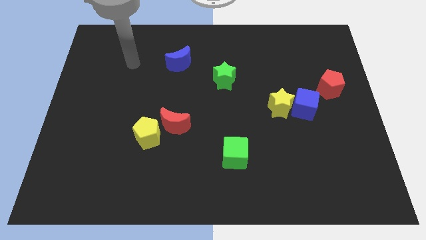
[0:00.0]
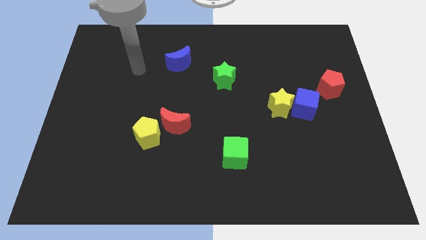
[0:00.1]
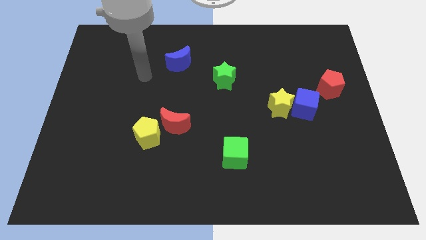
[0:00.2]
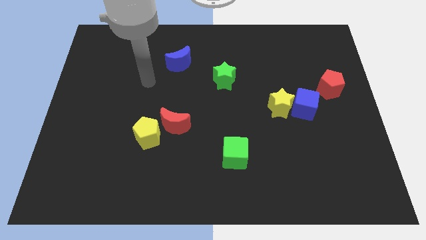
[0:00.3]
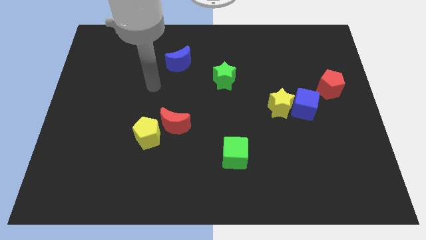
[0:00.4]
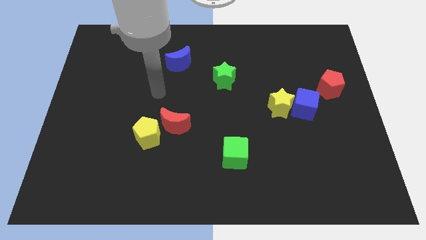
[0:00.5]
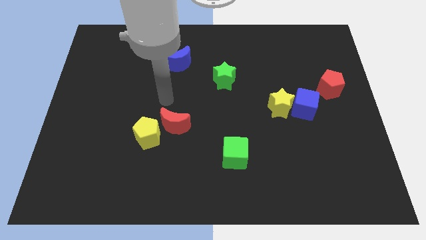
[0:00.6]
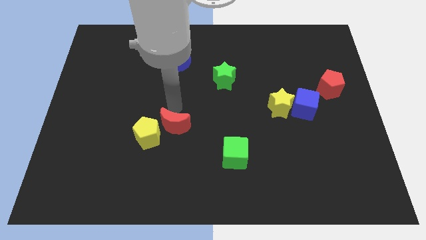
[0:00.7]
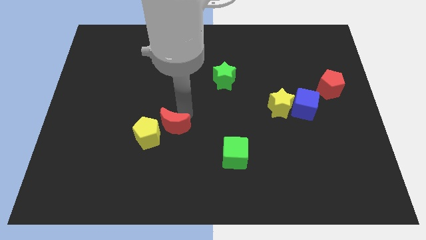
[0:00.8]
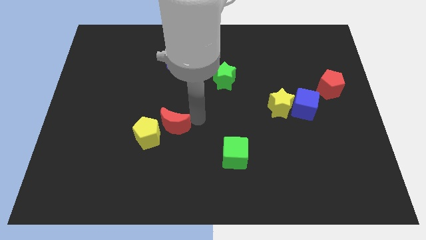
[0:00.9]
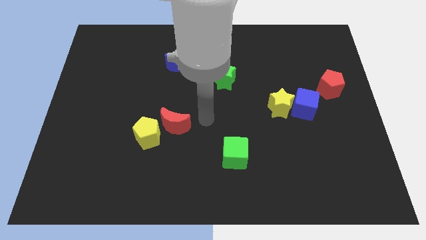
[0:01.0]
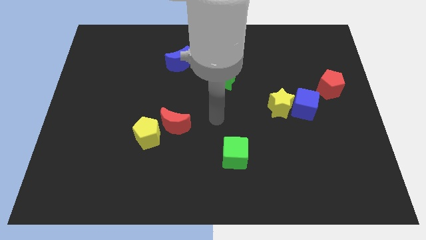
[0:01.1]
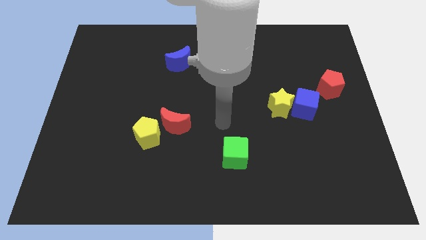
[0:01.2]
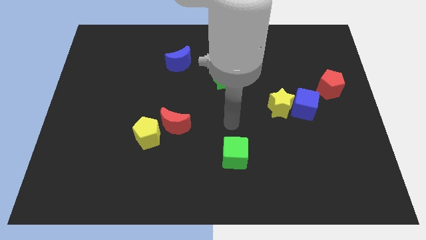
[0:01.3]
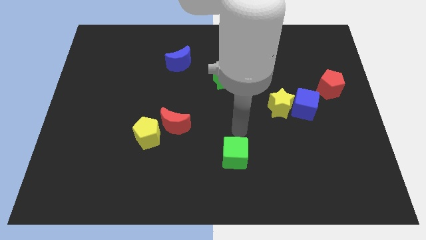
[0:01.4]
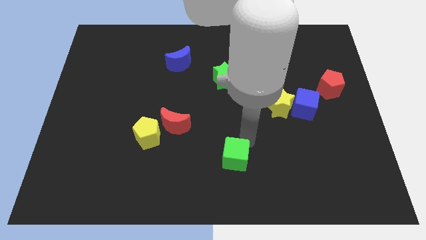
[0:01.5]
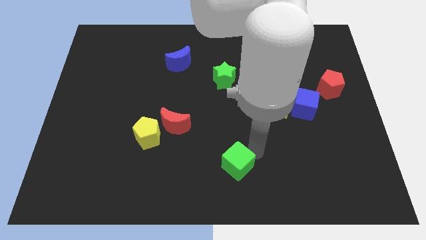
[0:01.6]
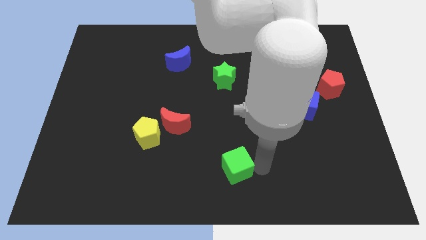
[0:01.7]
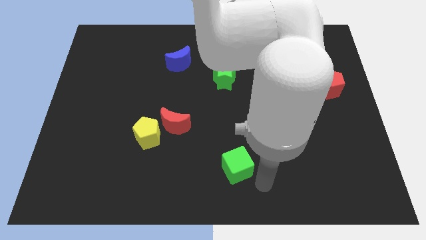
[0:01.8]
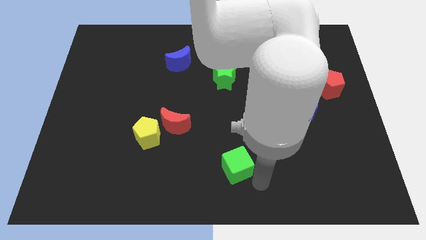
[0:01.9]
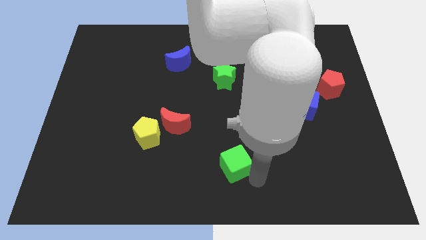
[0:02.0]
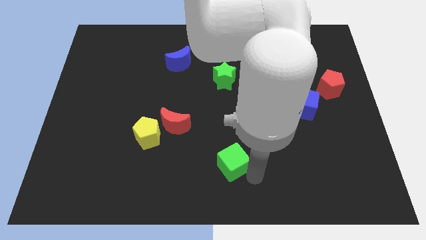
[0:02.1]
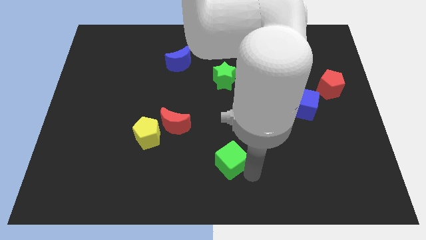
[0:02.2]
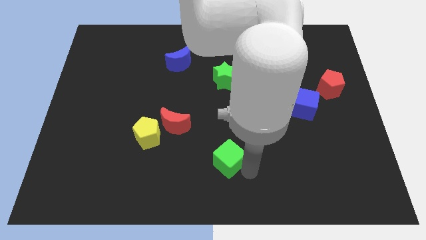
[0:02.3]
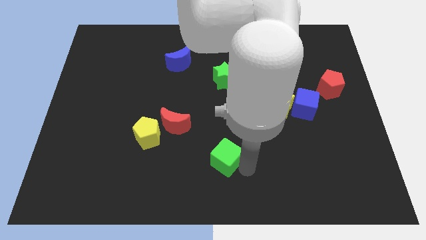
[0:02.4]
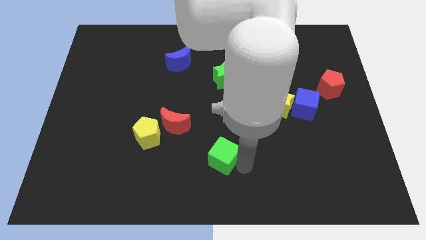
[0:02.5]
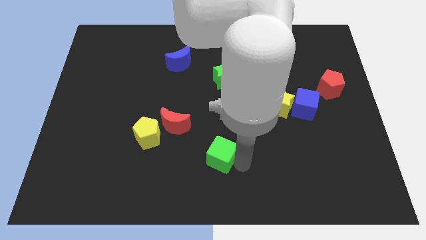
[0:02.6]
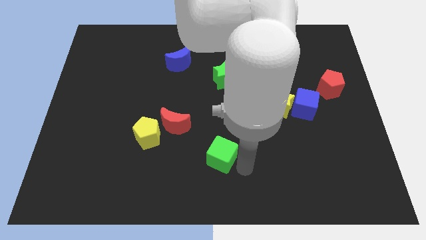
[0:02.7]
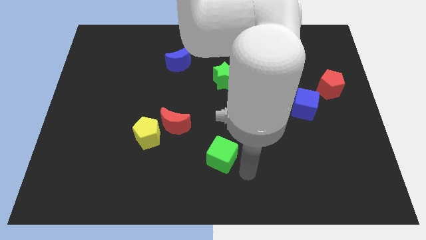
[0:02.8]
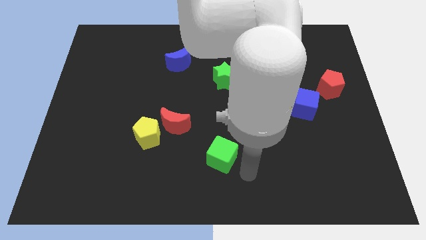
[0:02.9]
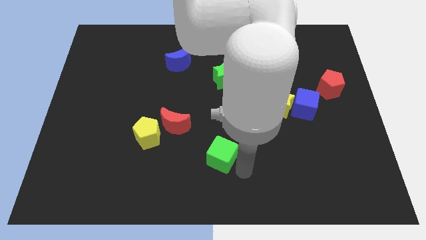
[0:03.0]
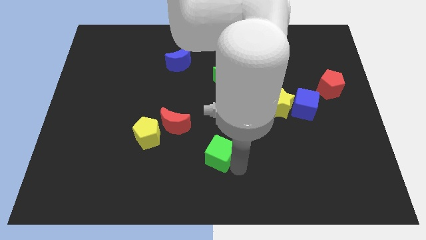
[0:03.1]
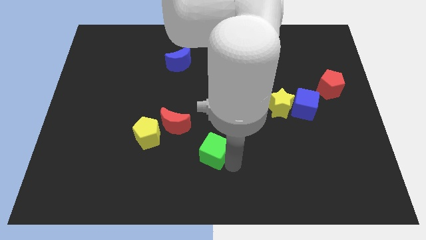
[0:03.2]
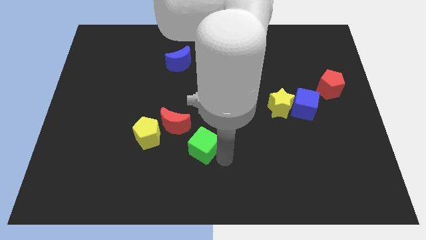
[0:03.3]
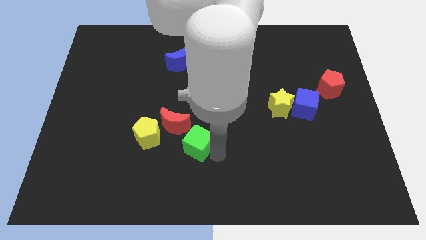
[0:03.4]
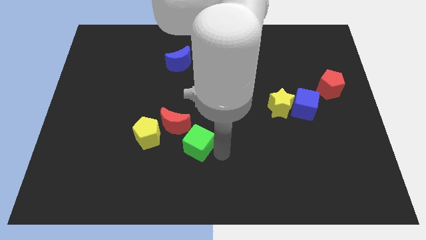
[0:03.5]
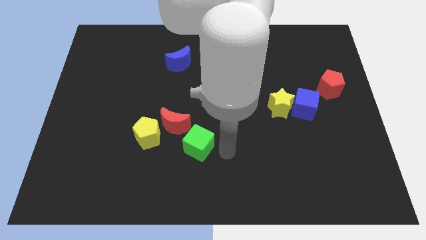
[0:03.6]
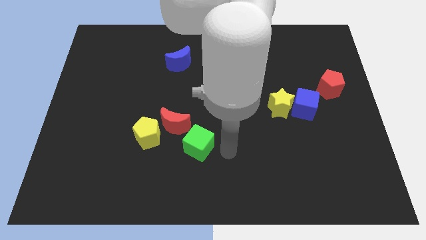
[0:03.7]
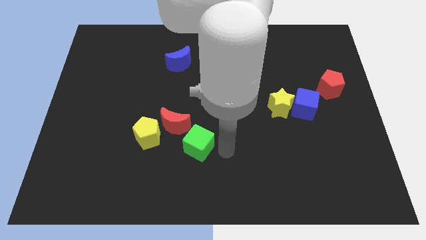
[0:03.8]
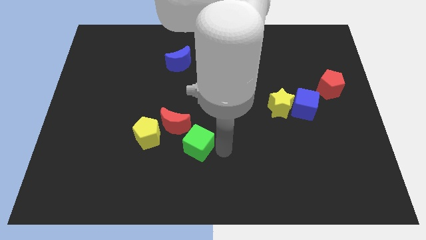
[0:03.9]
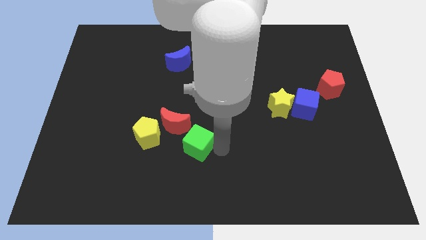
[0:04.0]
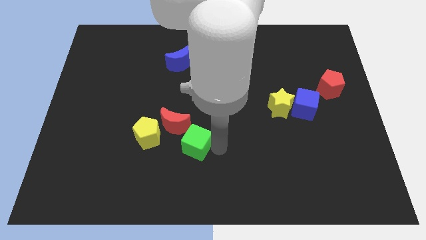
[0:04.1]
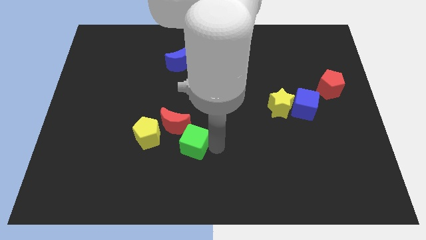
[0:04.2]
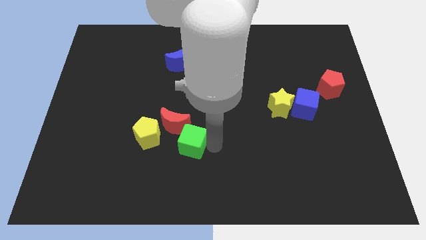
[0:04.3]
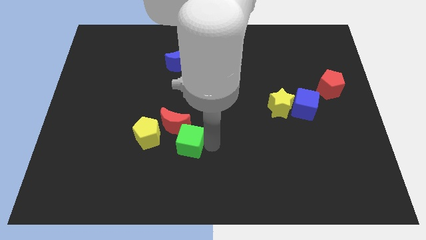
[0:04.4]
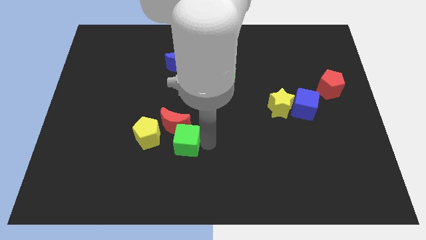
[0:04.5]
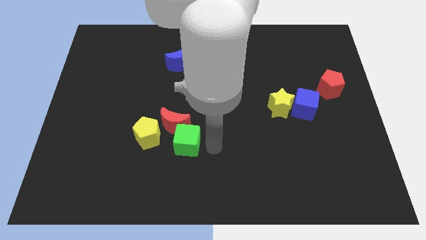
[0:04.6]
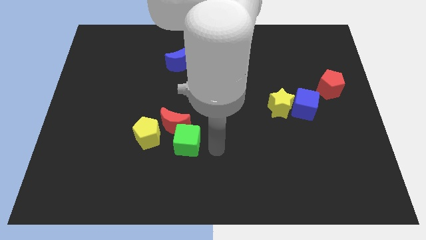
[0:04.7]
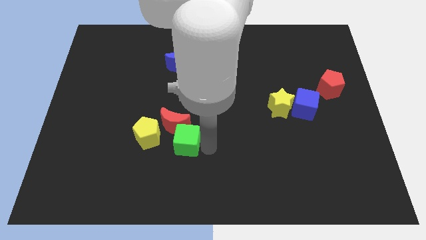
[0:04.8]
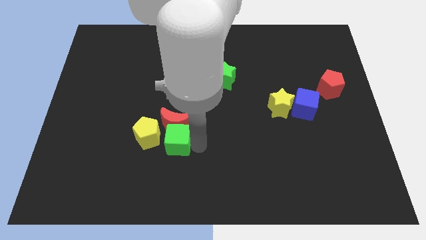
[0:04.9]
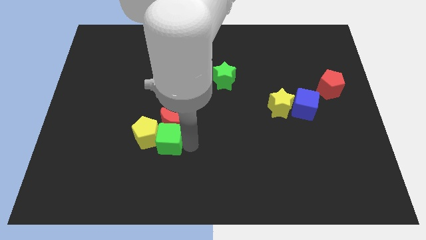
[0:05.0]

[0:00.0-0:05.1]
slide the green cube towards the yellow pentagon

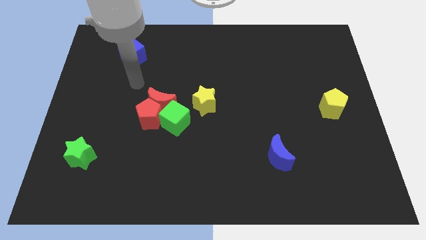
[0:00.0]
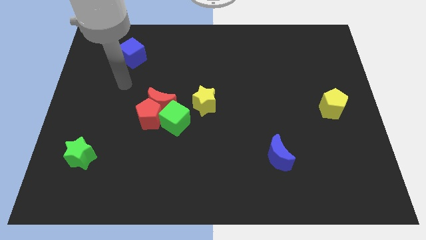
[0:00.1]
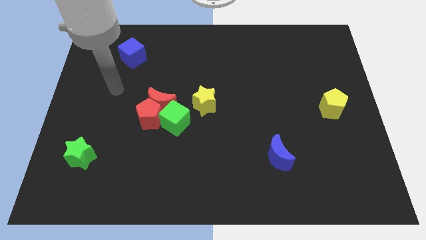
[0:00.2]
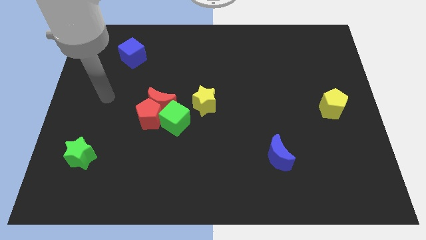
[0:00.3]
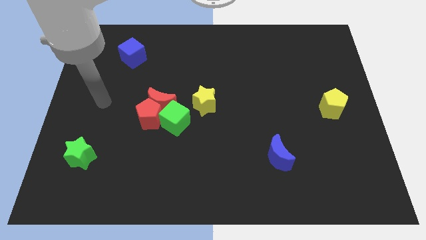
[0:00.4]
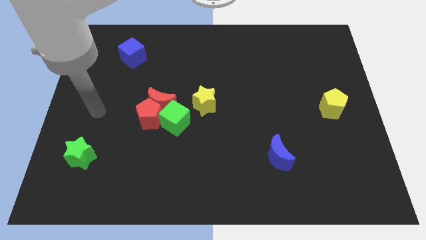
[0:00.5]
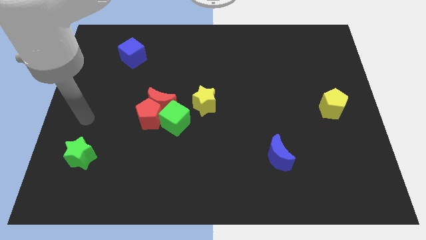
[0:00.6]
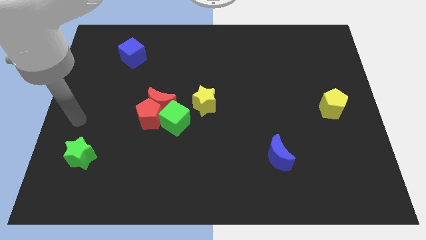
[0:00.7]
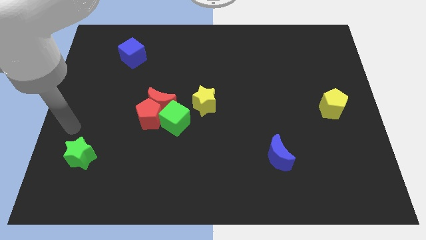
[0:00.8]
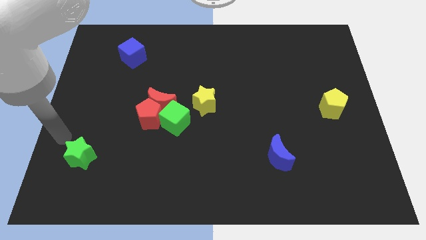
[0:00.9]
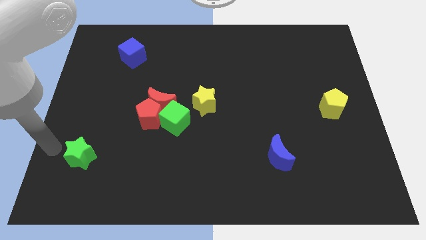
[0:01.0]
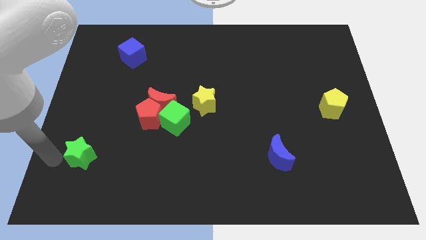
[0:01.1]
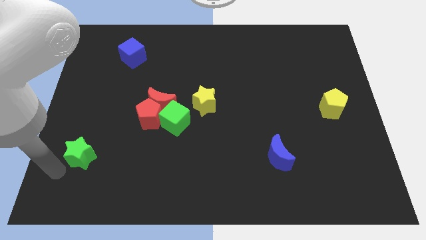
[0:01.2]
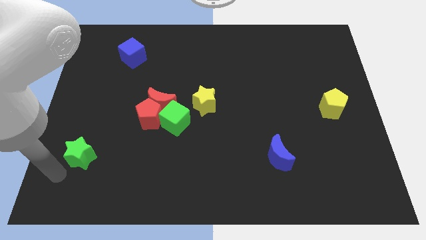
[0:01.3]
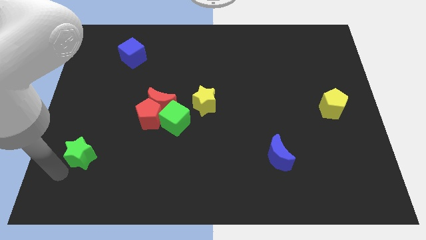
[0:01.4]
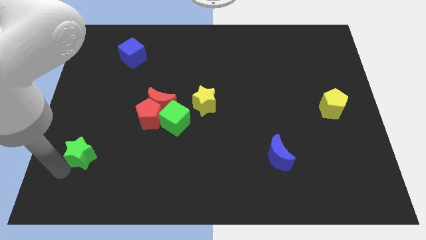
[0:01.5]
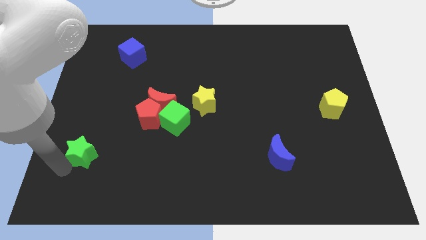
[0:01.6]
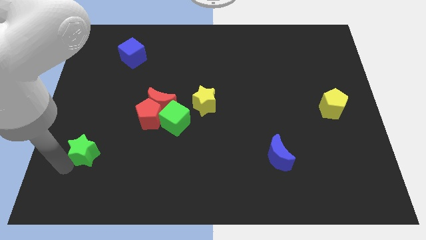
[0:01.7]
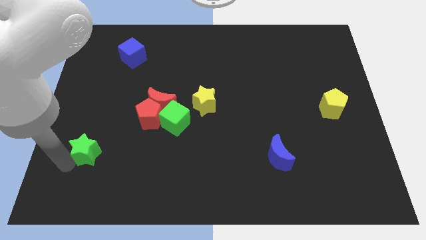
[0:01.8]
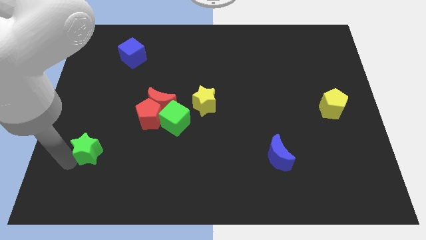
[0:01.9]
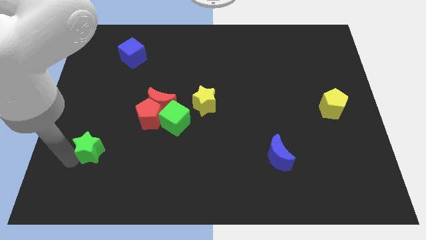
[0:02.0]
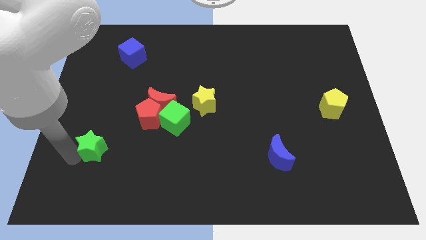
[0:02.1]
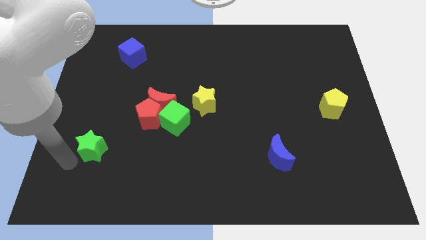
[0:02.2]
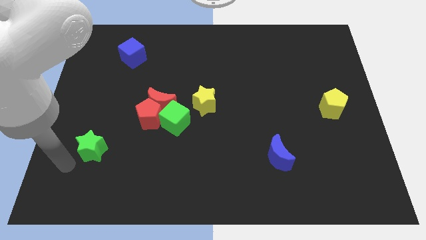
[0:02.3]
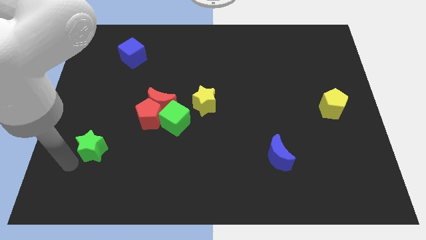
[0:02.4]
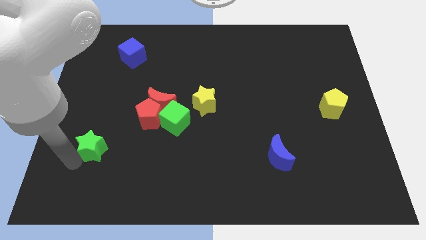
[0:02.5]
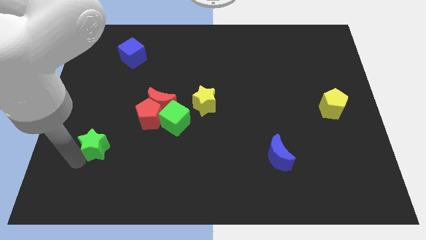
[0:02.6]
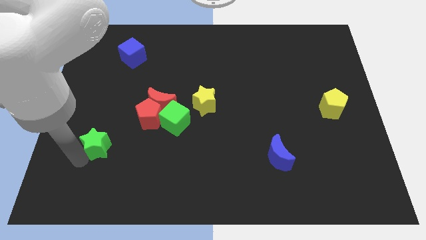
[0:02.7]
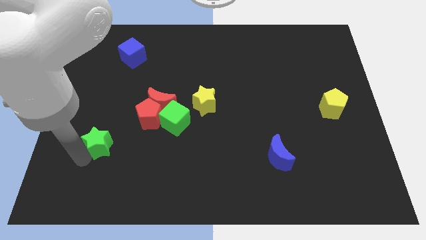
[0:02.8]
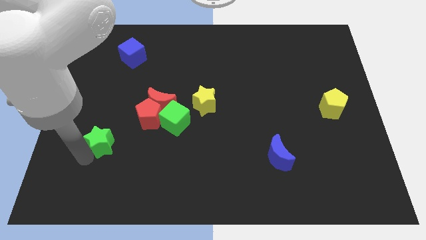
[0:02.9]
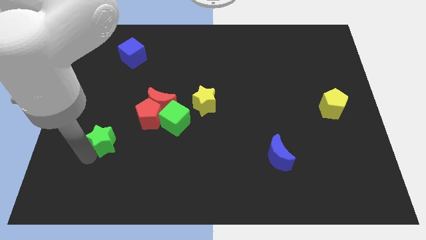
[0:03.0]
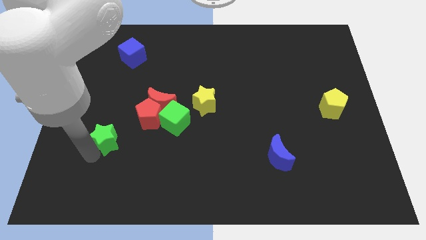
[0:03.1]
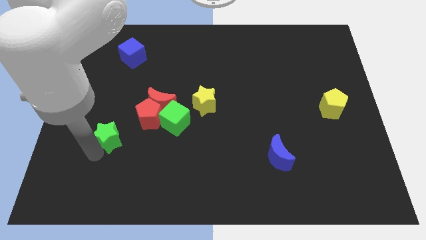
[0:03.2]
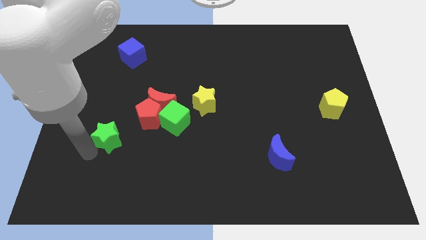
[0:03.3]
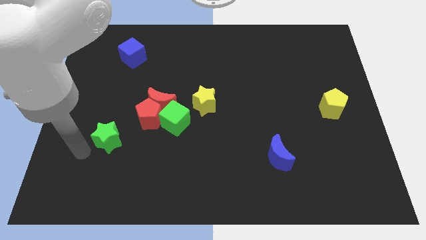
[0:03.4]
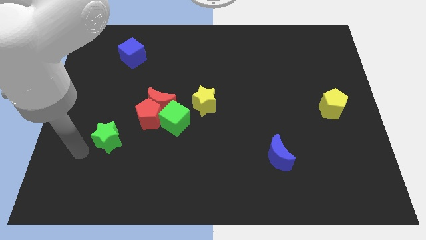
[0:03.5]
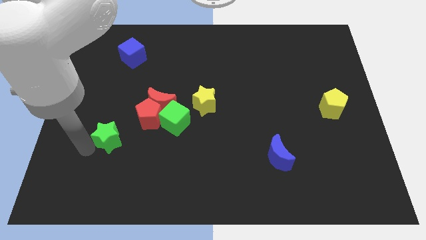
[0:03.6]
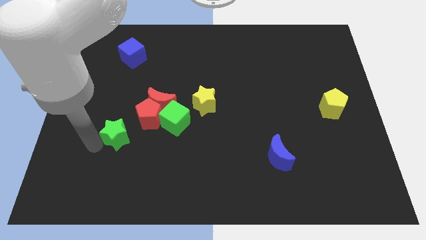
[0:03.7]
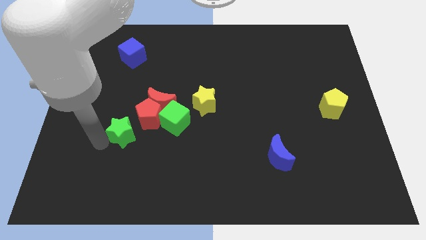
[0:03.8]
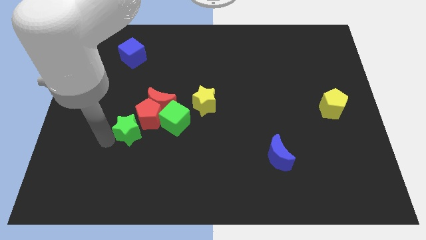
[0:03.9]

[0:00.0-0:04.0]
put the green star next to the red pentagon
